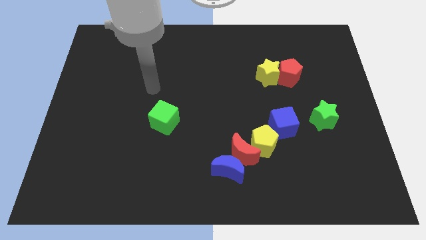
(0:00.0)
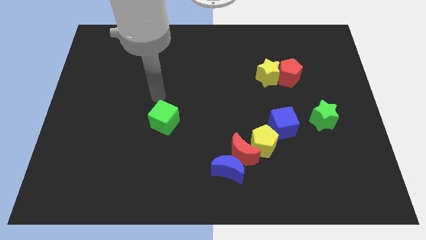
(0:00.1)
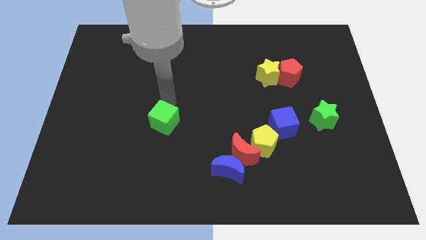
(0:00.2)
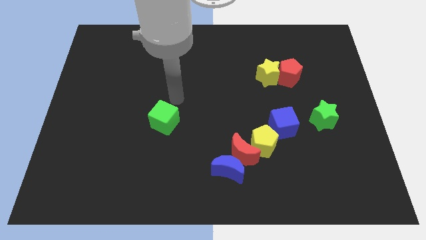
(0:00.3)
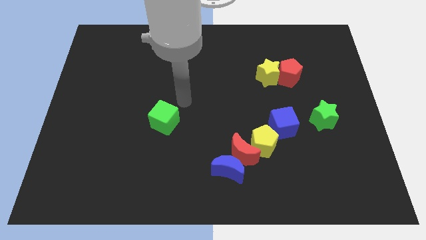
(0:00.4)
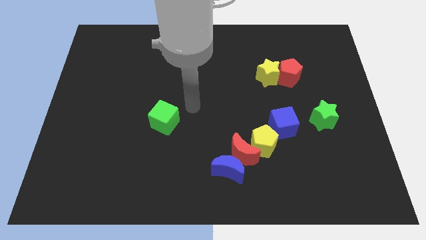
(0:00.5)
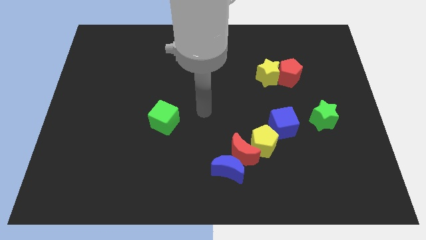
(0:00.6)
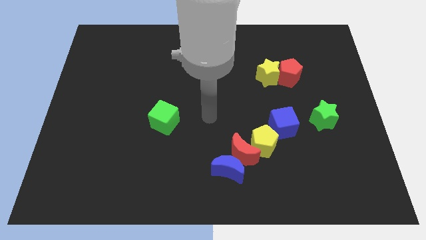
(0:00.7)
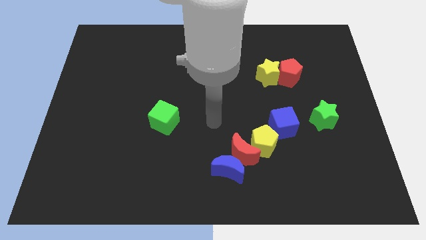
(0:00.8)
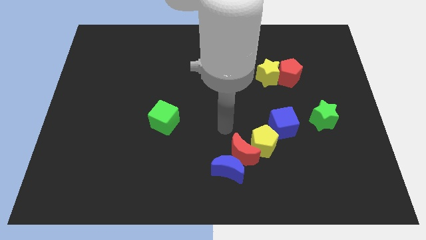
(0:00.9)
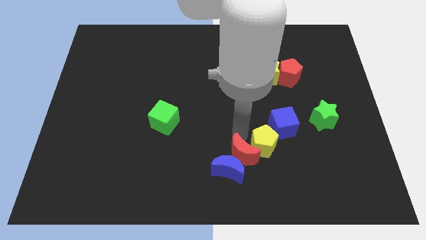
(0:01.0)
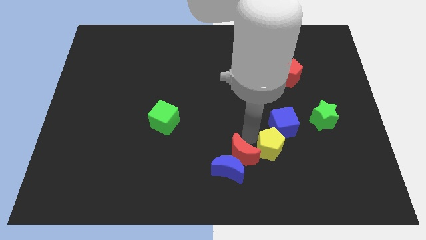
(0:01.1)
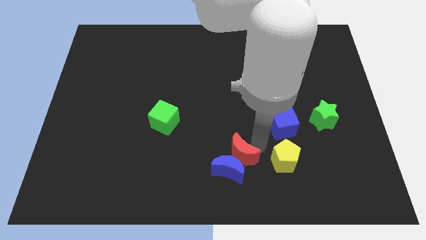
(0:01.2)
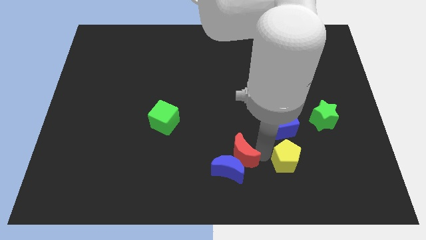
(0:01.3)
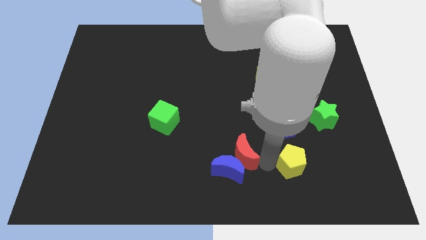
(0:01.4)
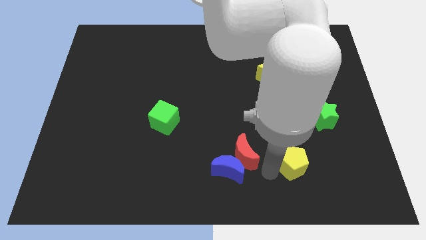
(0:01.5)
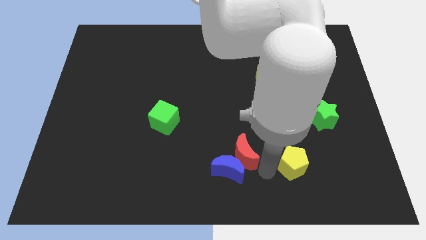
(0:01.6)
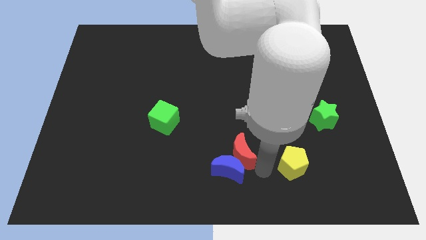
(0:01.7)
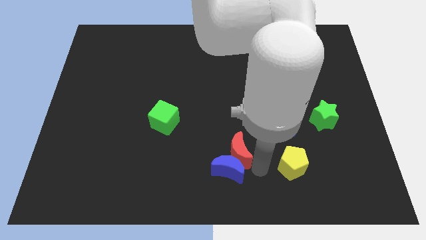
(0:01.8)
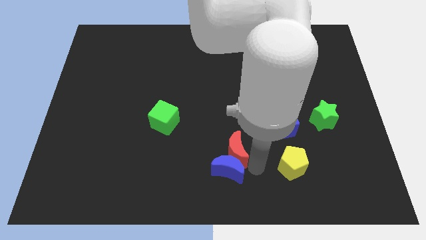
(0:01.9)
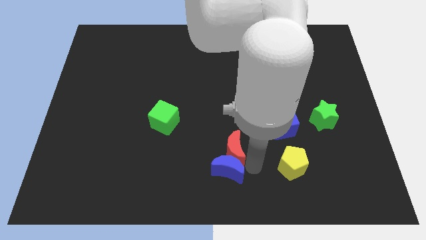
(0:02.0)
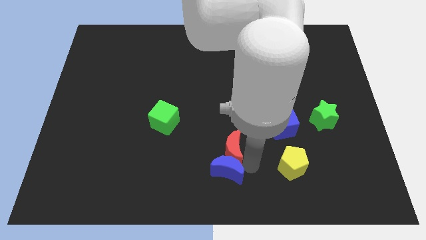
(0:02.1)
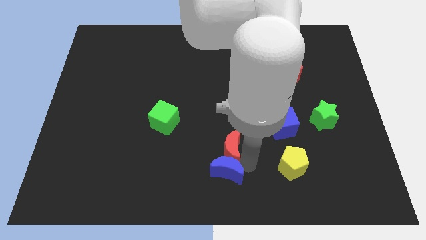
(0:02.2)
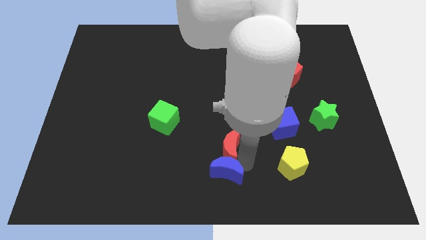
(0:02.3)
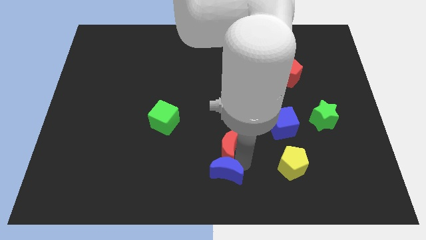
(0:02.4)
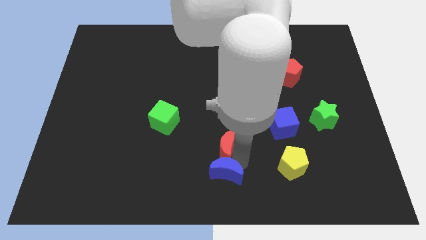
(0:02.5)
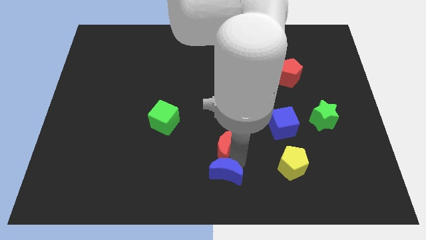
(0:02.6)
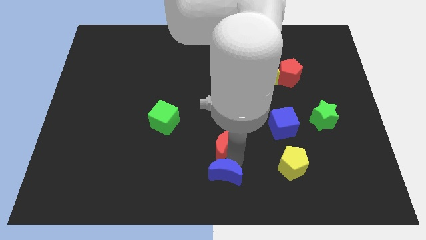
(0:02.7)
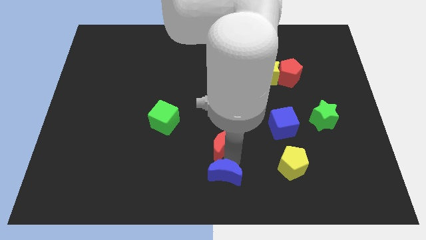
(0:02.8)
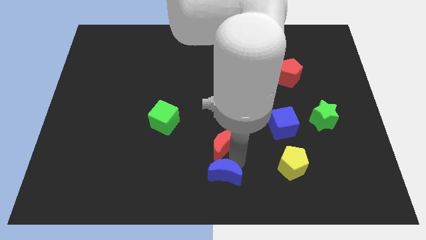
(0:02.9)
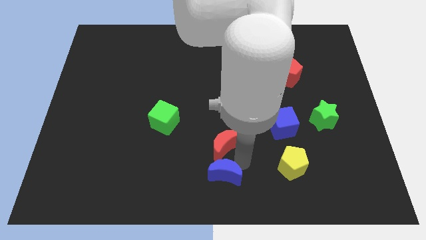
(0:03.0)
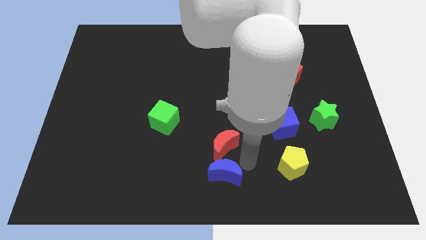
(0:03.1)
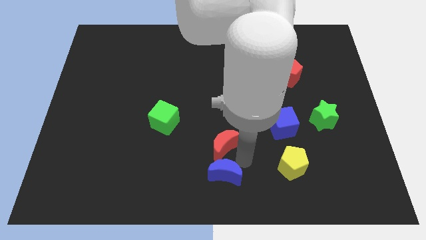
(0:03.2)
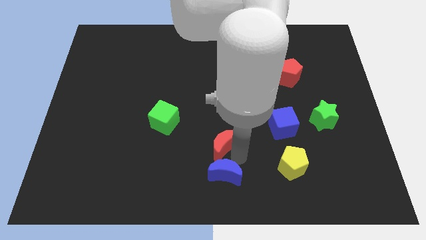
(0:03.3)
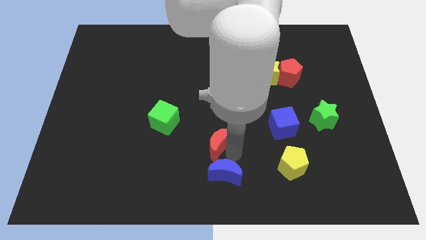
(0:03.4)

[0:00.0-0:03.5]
move the red moon away from the blue moon and yellow pentagon

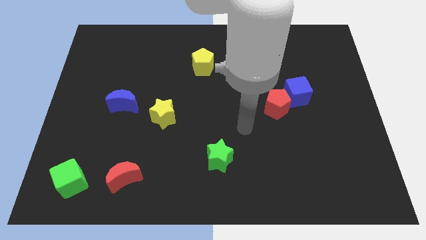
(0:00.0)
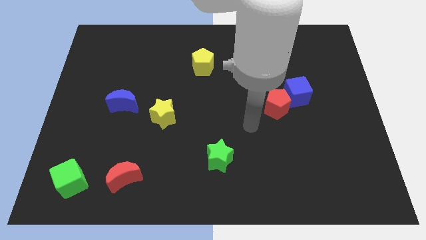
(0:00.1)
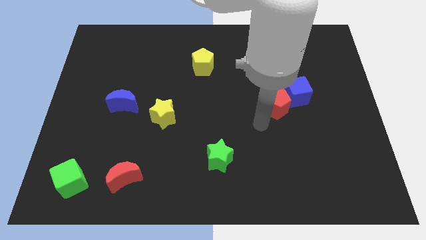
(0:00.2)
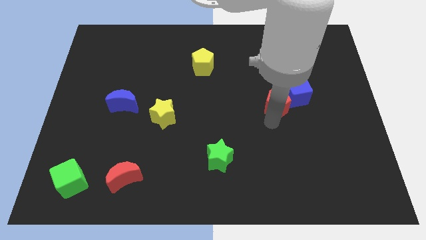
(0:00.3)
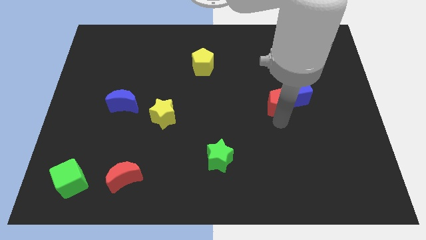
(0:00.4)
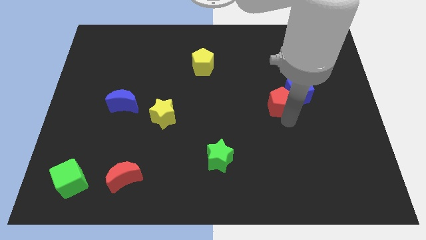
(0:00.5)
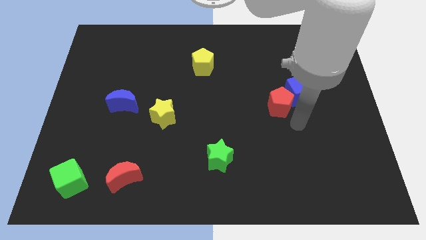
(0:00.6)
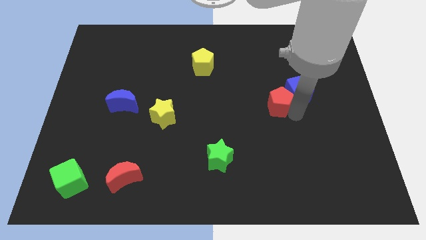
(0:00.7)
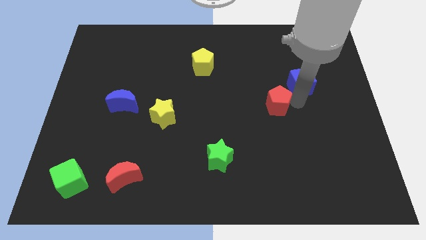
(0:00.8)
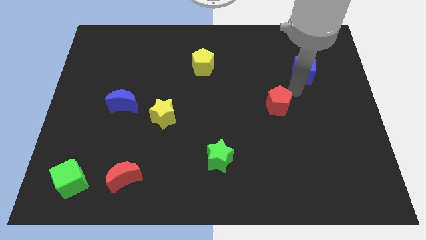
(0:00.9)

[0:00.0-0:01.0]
separate the red pentagon from the blue cube

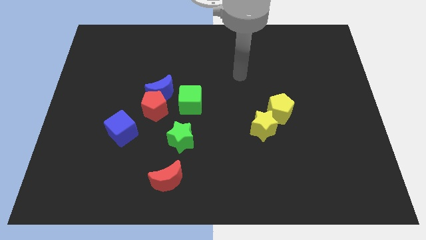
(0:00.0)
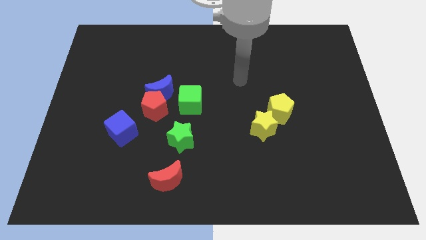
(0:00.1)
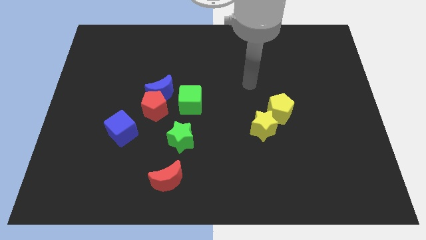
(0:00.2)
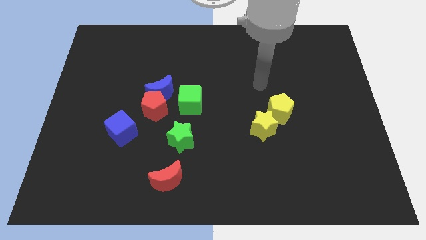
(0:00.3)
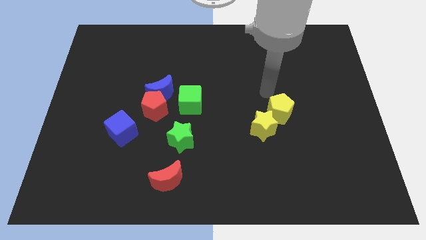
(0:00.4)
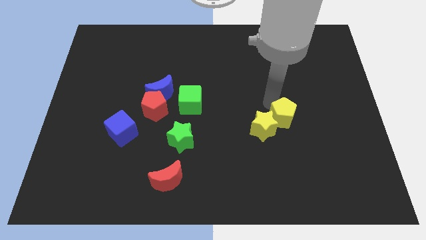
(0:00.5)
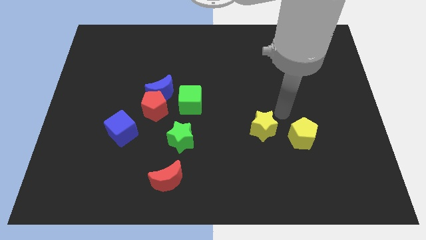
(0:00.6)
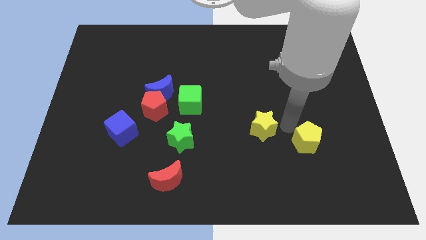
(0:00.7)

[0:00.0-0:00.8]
pull the yellow star apart from the yellow pentagon

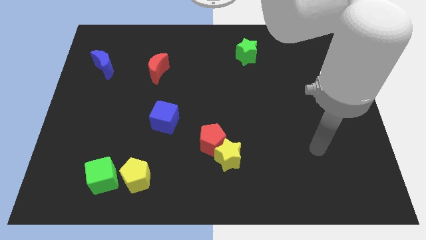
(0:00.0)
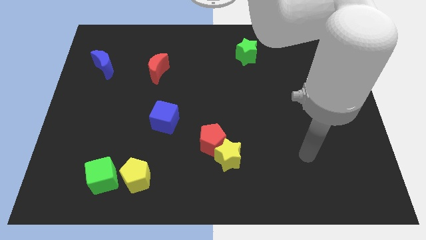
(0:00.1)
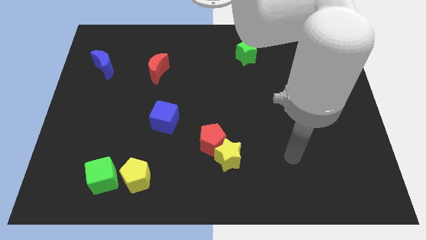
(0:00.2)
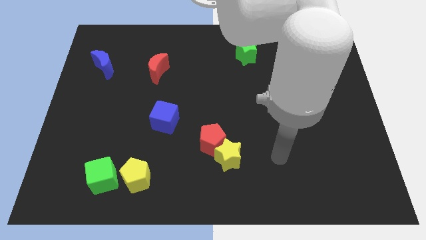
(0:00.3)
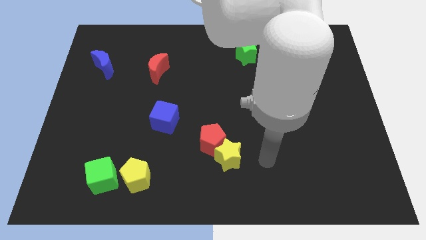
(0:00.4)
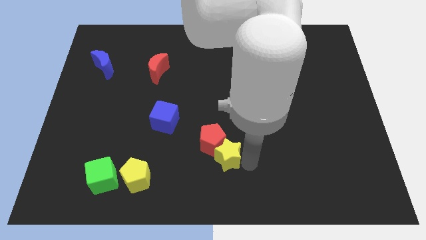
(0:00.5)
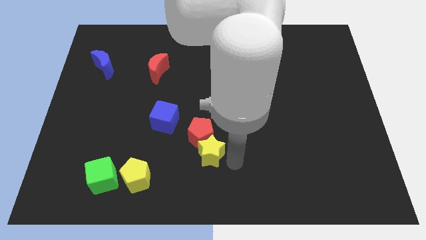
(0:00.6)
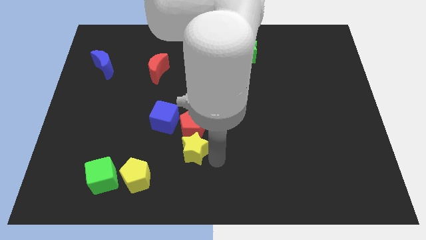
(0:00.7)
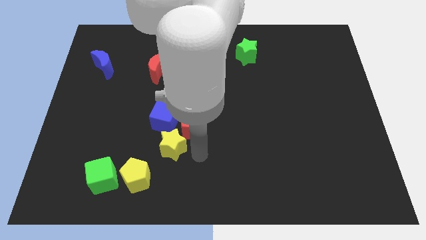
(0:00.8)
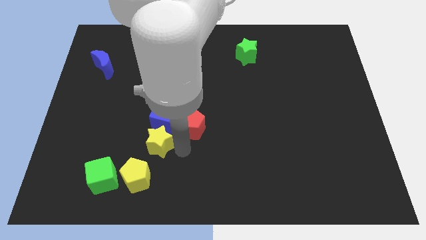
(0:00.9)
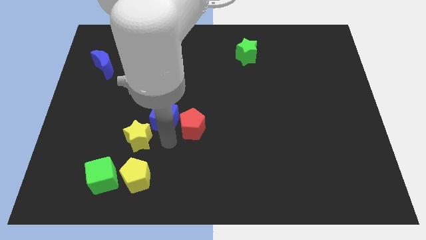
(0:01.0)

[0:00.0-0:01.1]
move the red pentagon away from the yellow star

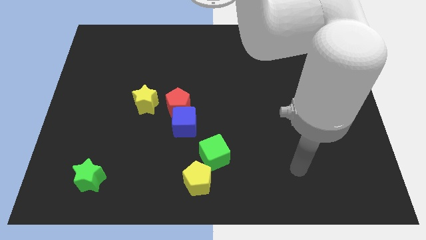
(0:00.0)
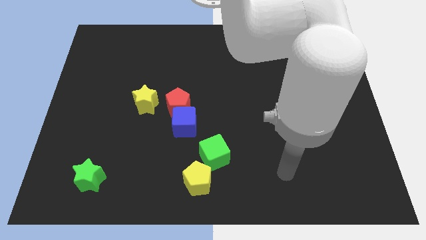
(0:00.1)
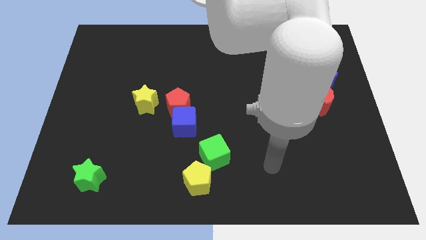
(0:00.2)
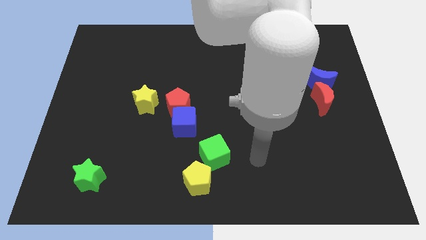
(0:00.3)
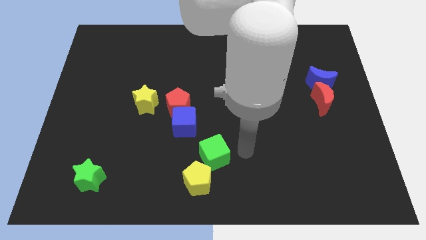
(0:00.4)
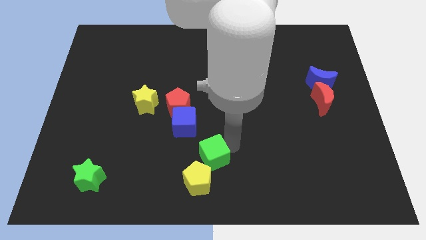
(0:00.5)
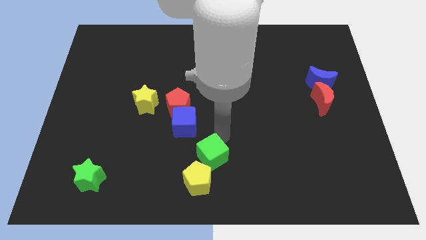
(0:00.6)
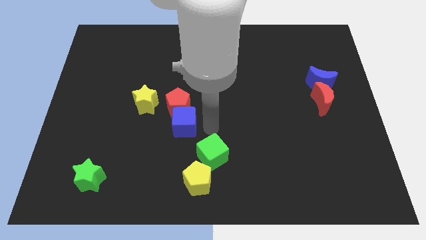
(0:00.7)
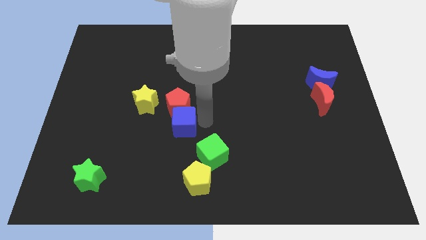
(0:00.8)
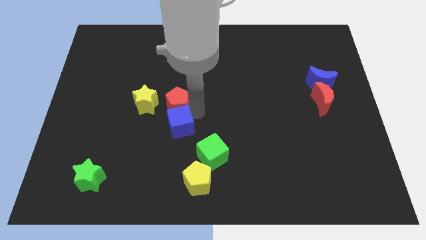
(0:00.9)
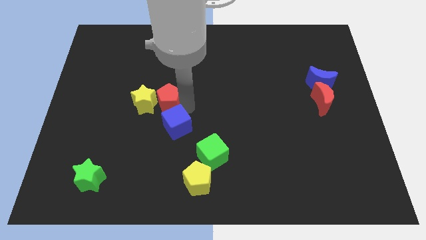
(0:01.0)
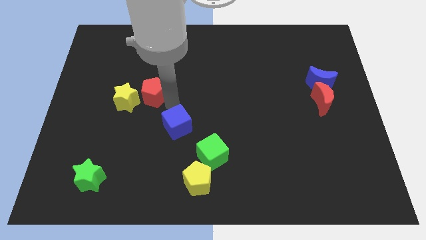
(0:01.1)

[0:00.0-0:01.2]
separate the blue cube from the red pentagon

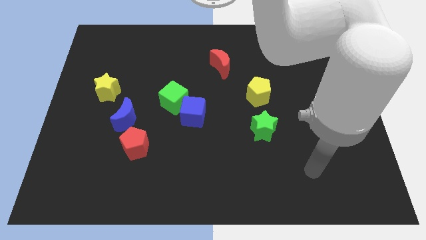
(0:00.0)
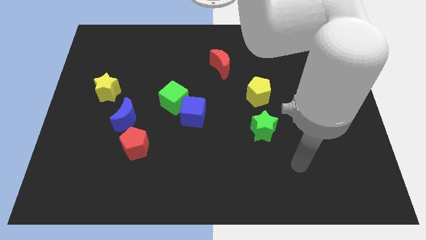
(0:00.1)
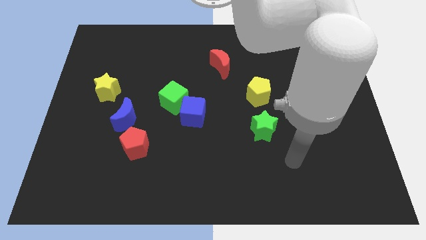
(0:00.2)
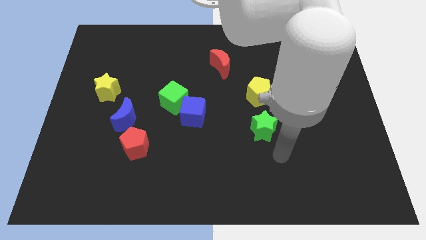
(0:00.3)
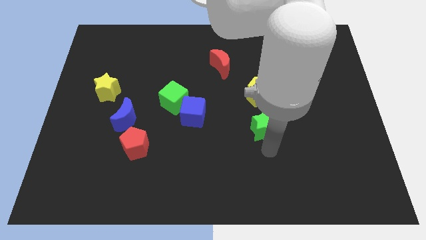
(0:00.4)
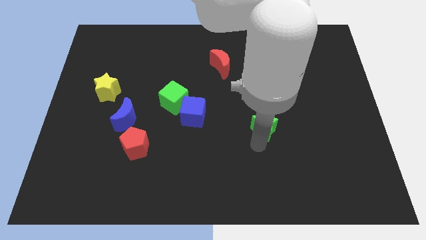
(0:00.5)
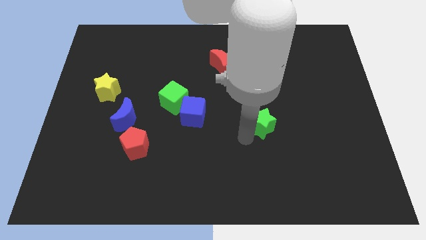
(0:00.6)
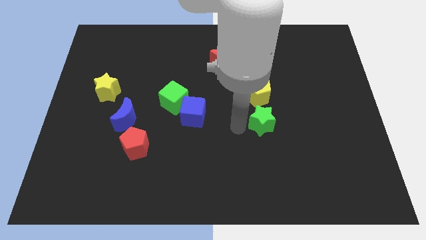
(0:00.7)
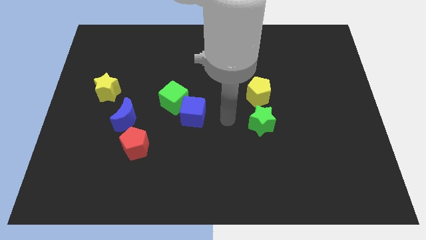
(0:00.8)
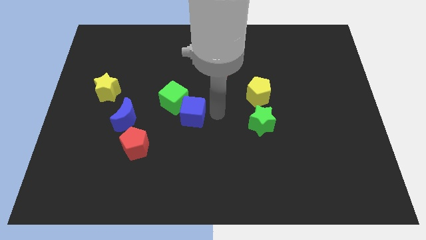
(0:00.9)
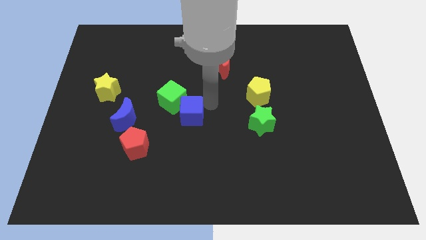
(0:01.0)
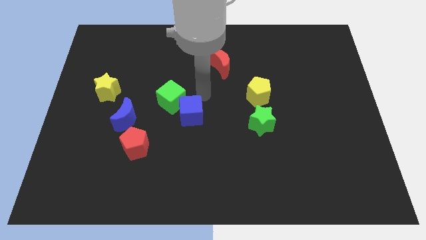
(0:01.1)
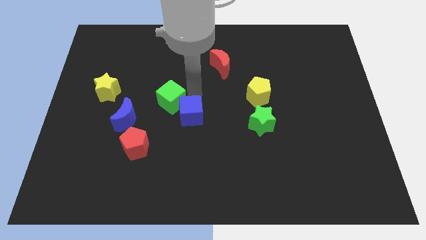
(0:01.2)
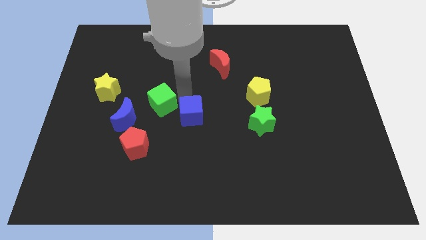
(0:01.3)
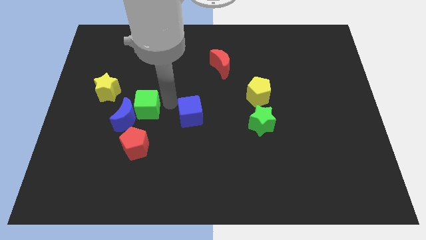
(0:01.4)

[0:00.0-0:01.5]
separate the blue cube from the green cube

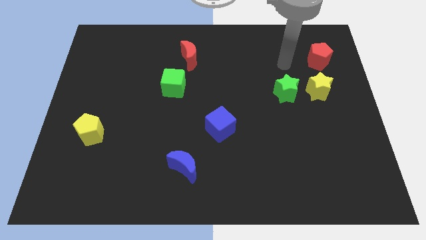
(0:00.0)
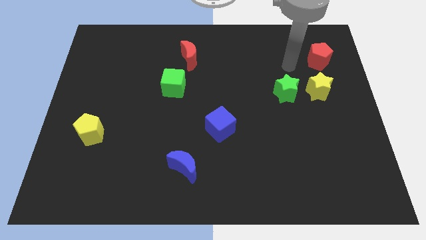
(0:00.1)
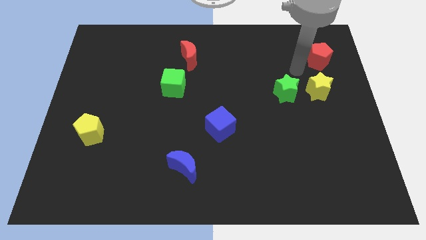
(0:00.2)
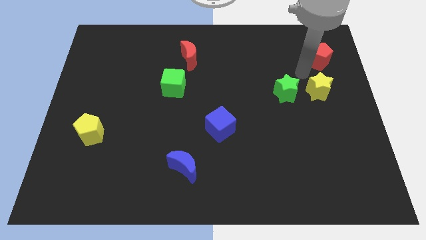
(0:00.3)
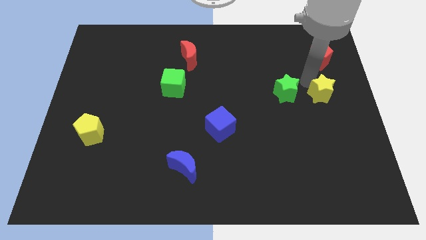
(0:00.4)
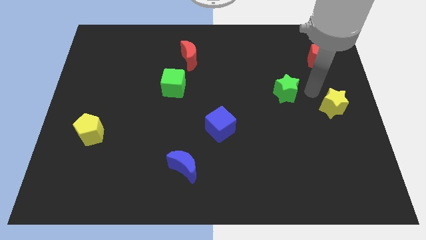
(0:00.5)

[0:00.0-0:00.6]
separate the green star from the yellow star
